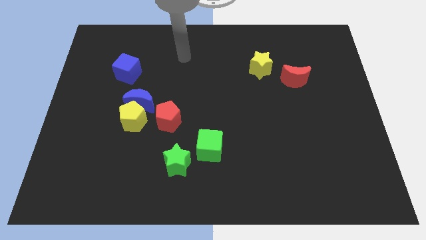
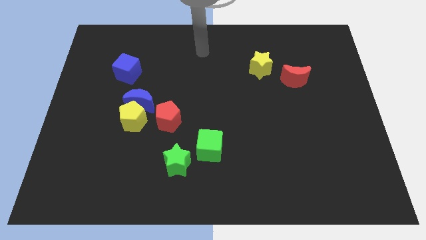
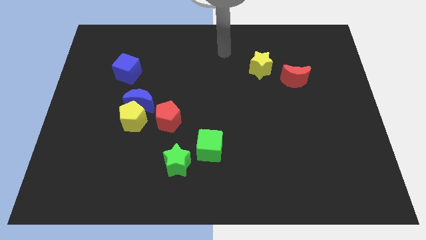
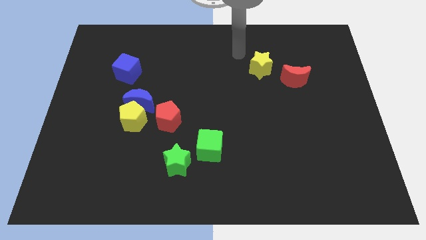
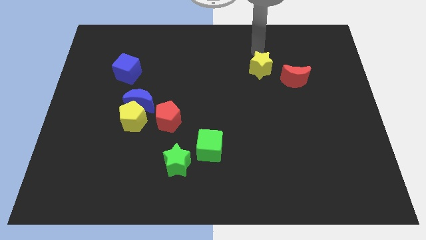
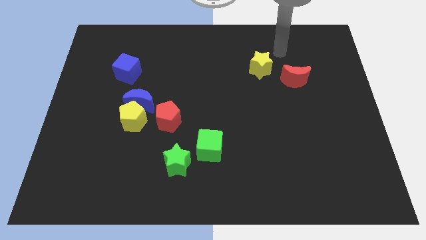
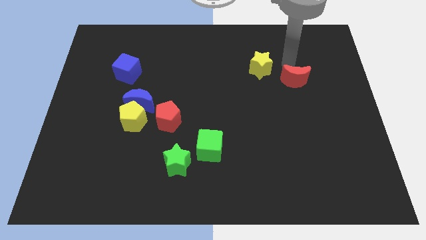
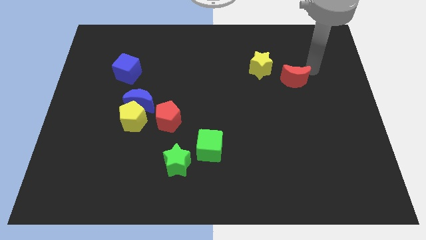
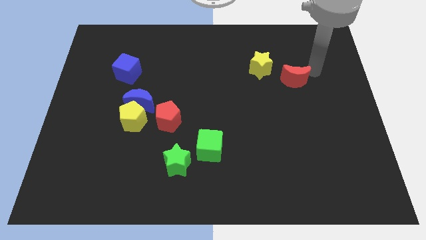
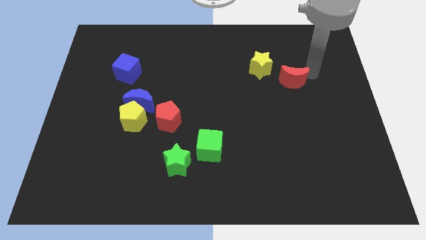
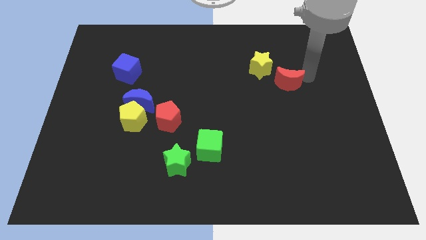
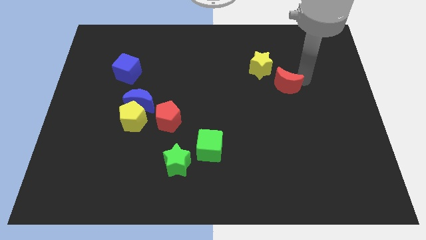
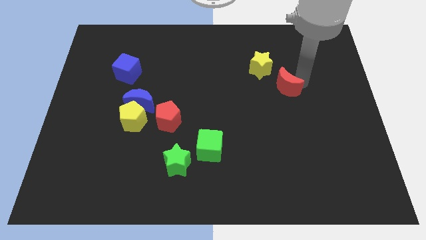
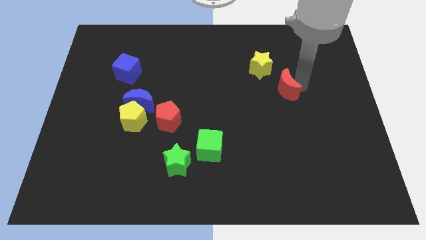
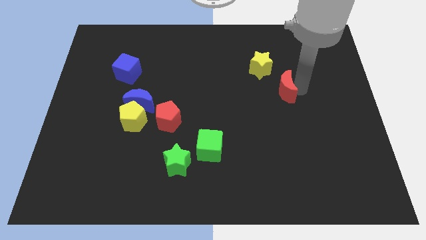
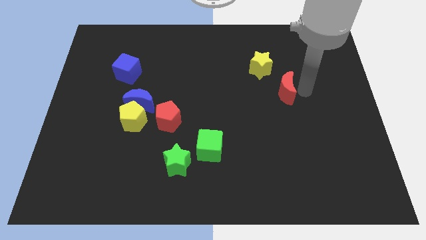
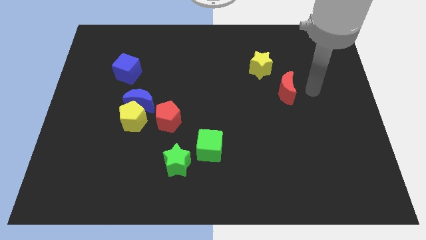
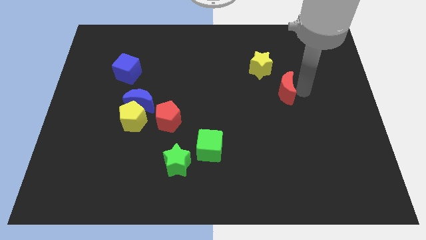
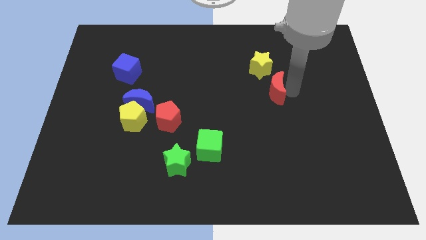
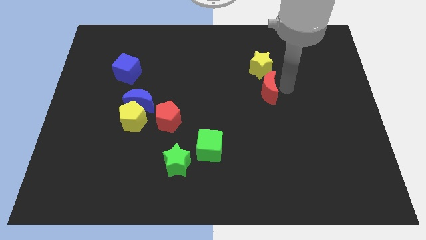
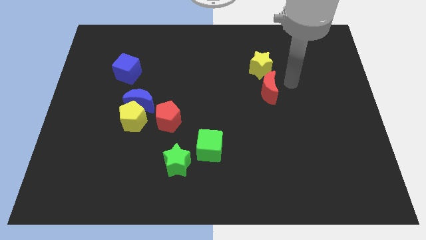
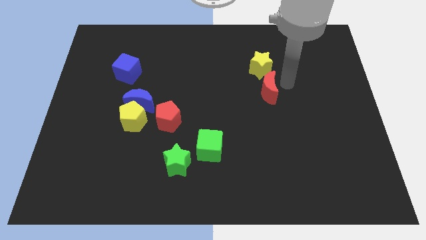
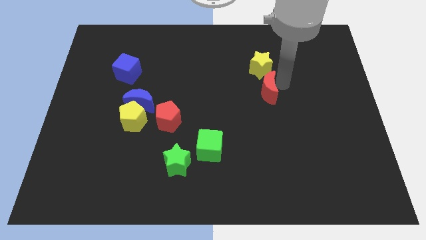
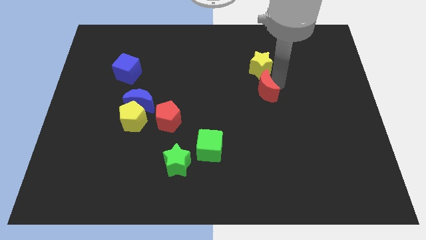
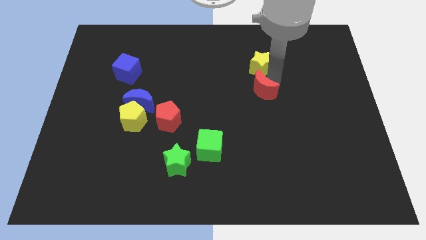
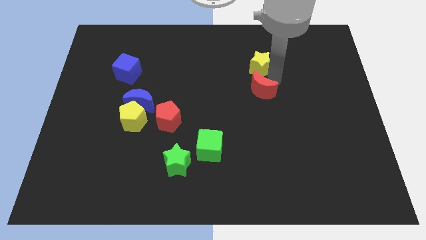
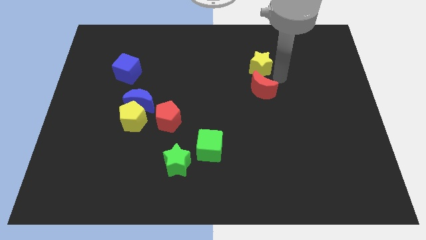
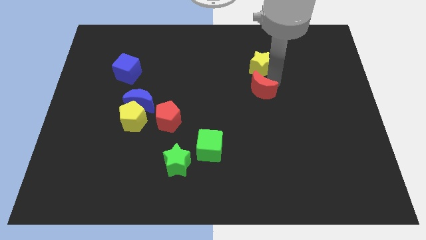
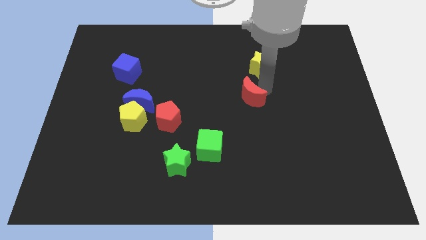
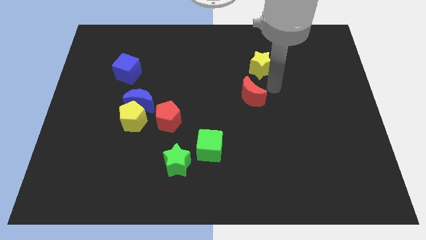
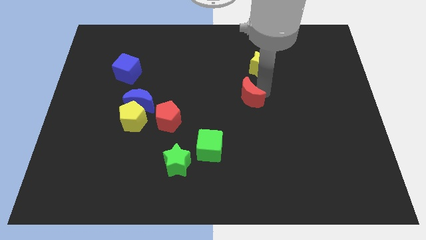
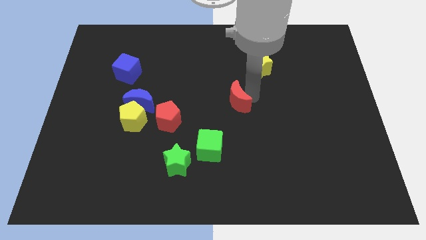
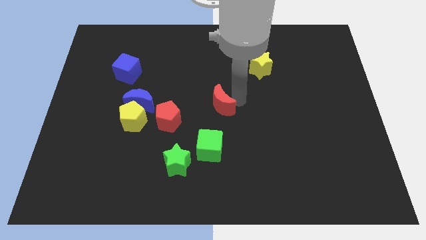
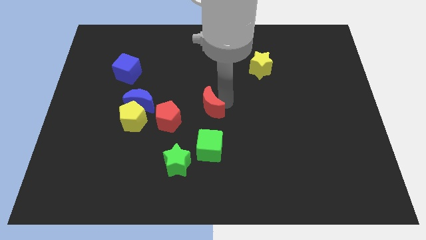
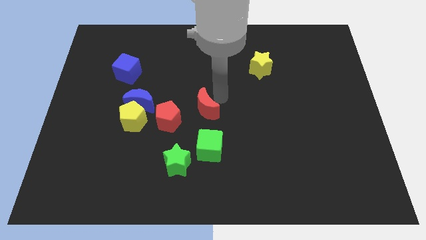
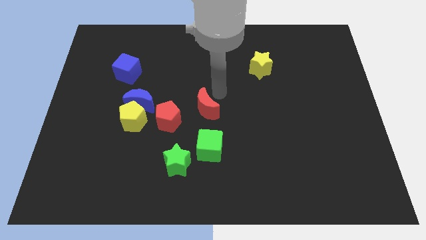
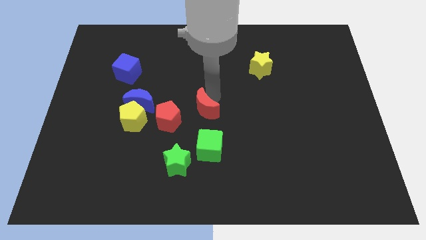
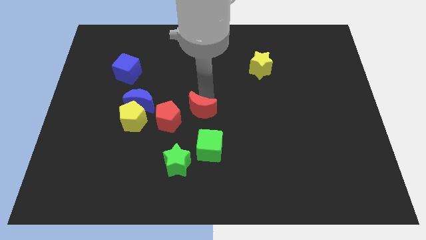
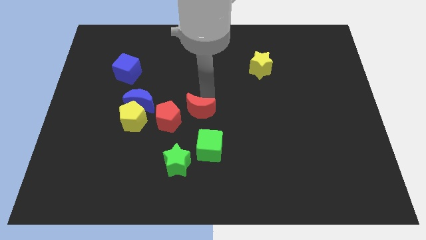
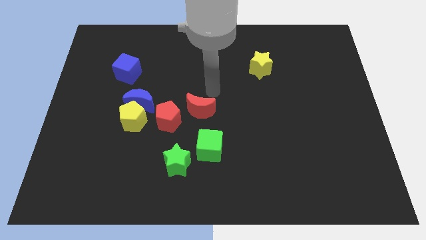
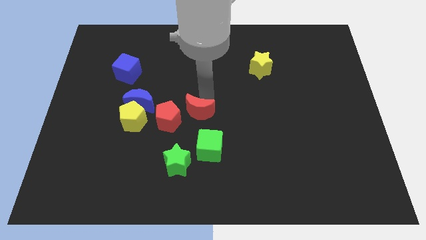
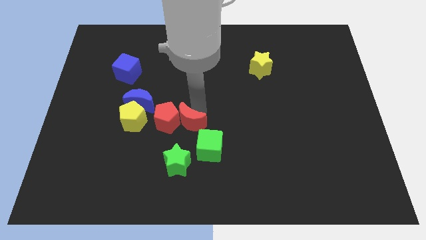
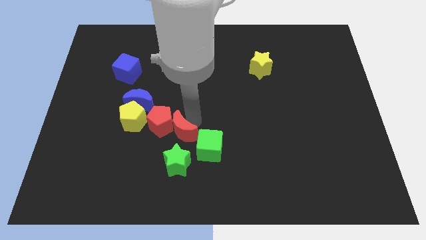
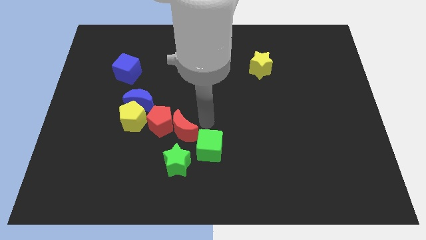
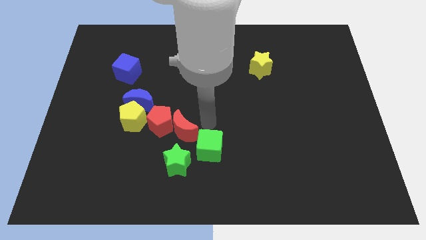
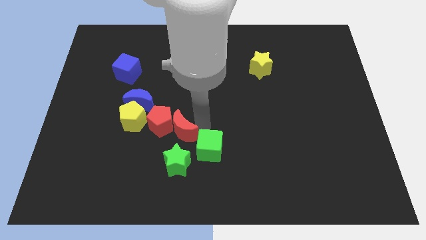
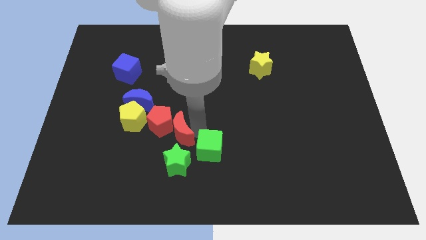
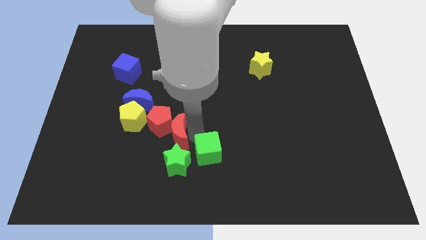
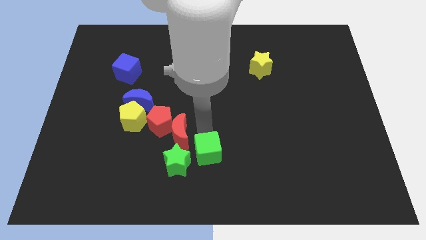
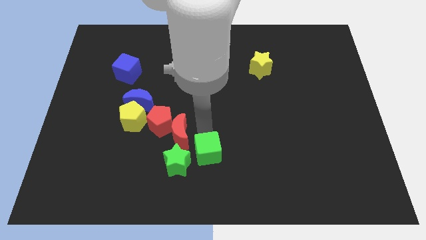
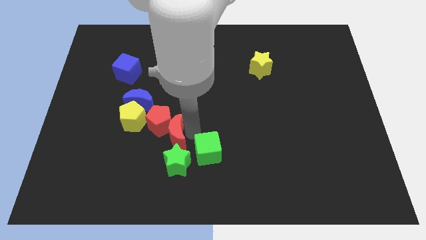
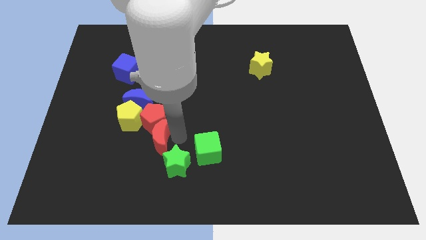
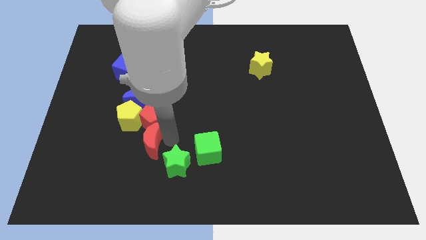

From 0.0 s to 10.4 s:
put the red moon to the bottom left of the red pentagon

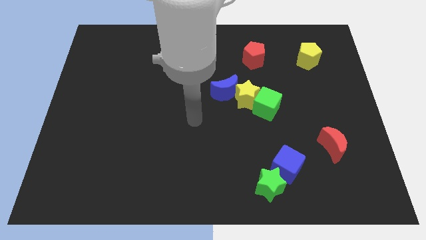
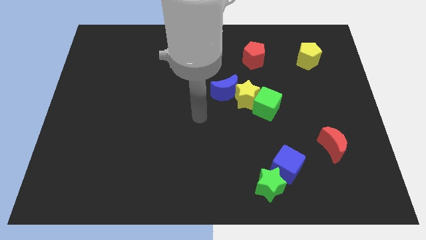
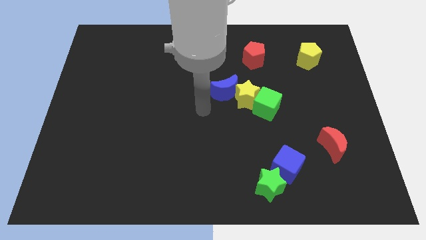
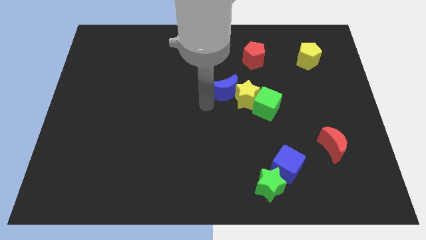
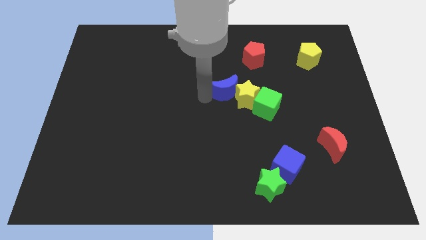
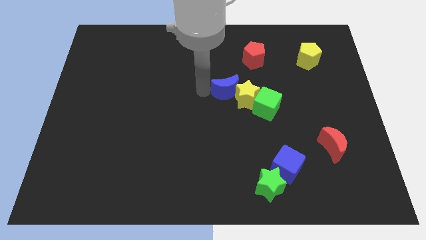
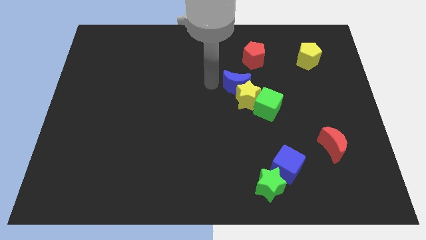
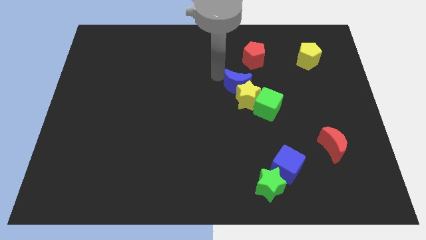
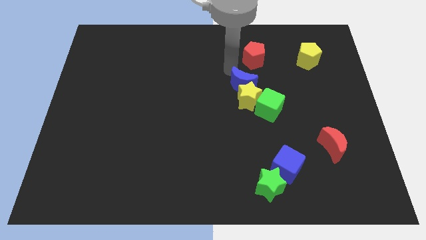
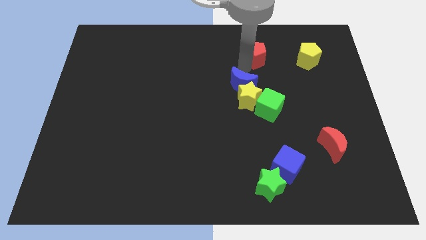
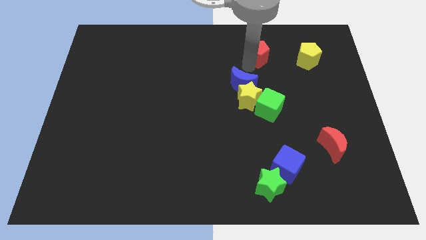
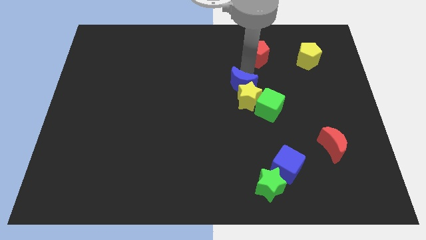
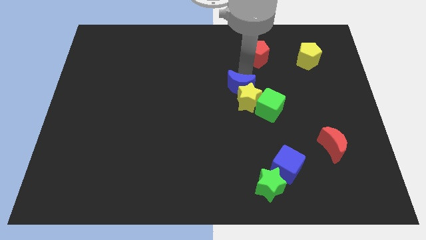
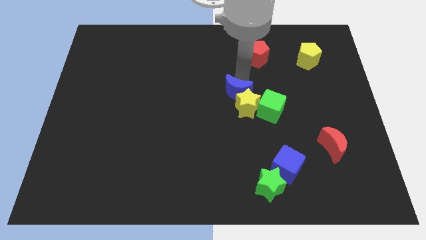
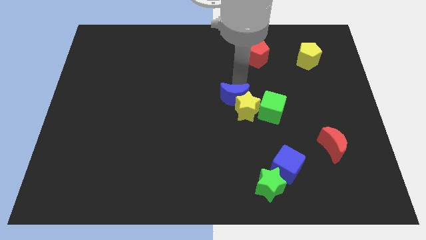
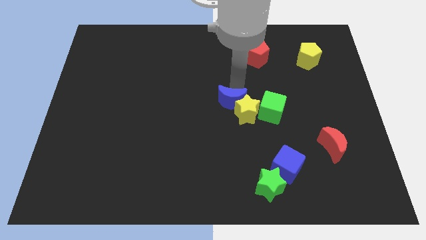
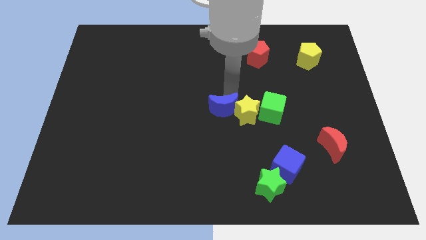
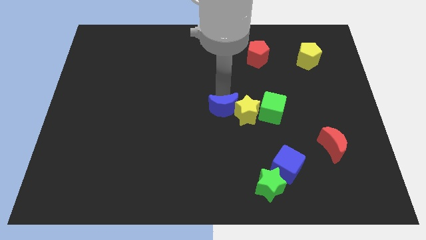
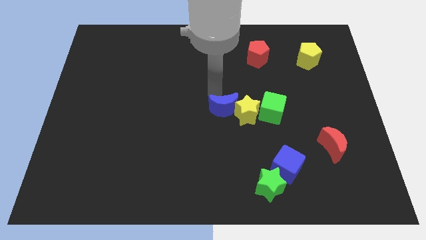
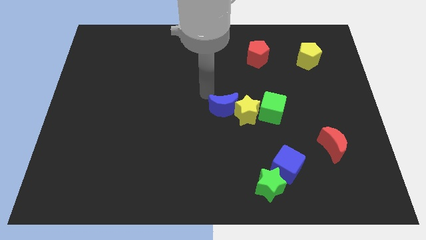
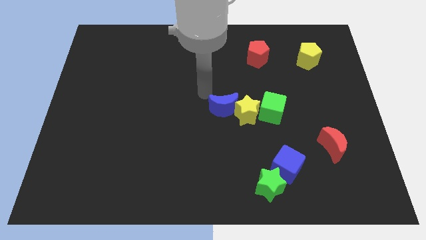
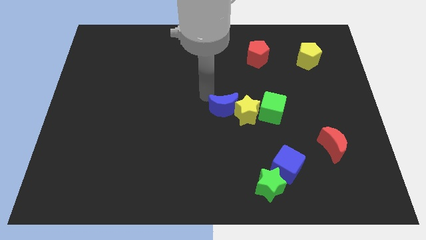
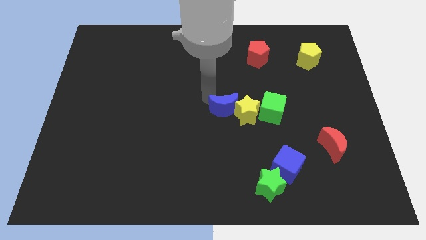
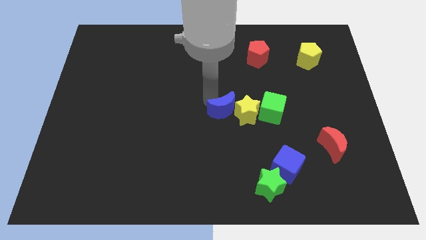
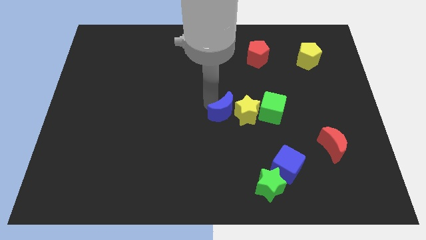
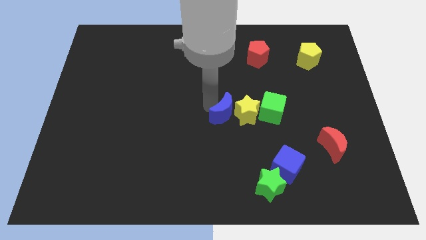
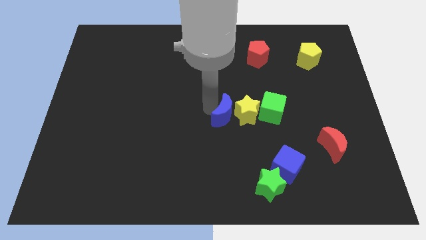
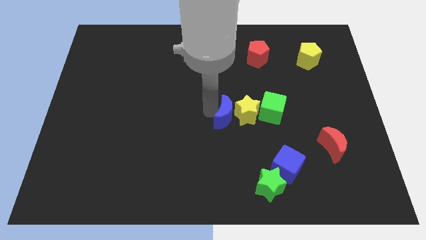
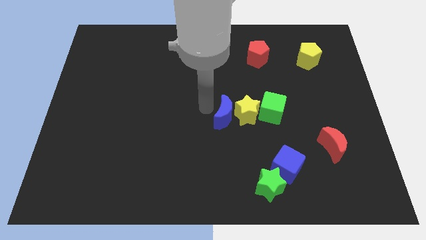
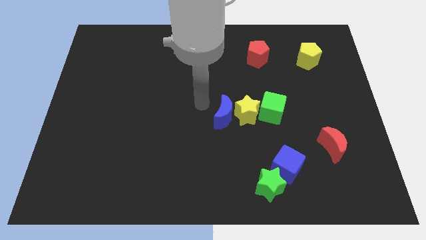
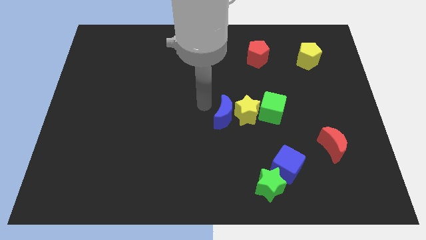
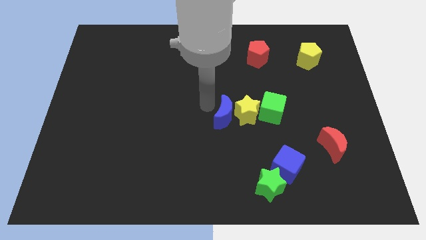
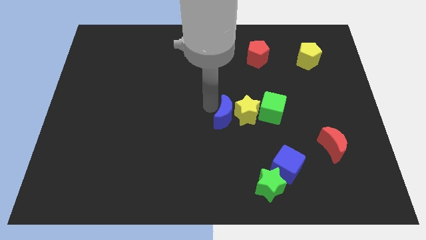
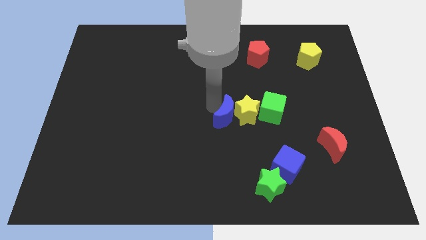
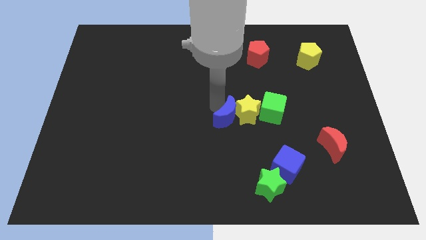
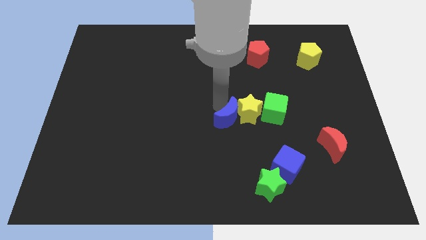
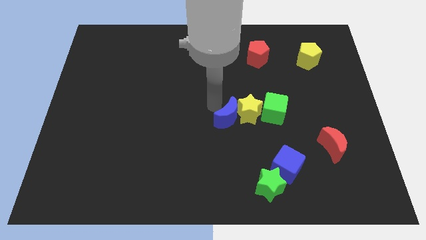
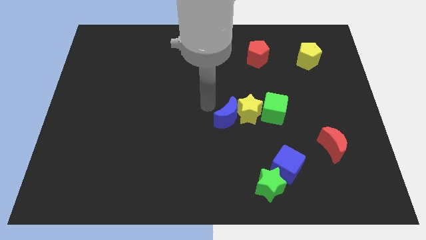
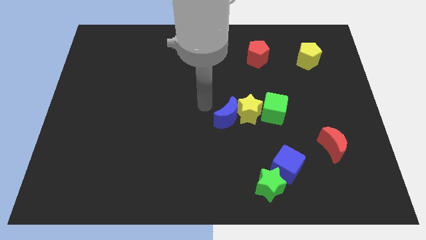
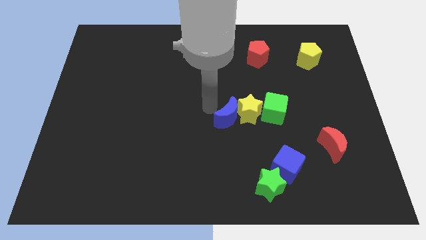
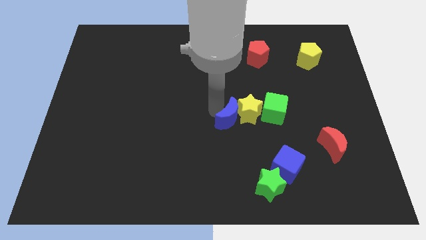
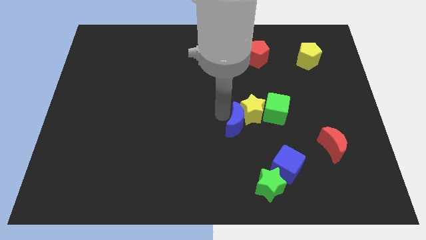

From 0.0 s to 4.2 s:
move the blue moon diagonally down and to the left of the green cube
